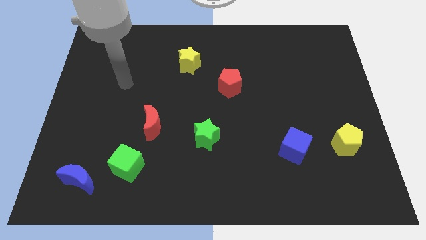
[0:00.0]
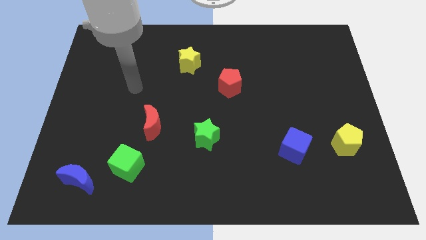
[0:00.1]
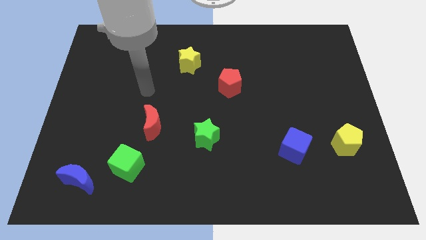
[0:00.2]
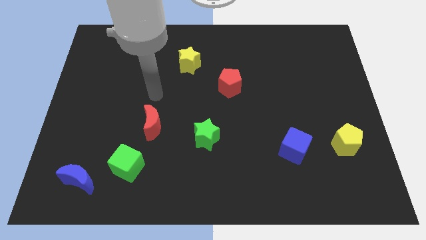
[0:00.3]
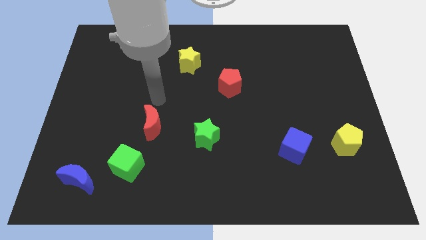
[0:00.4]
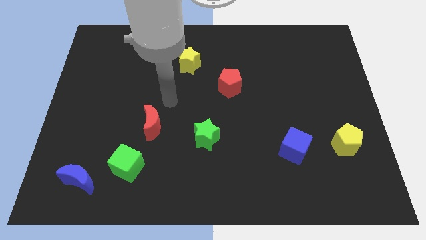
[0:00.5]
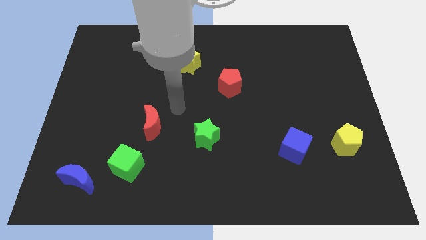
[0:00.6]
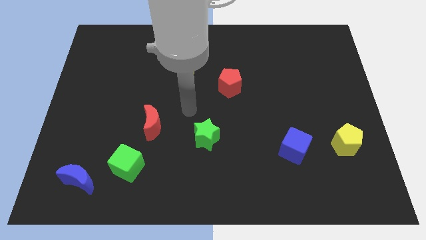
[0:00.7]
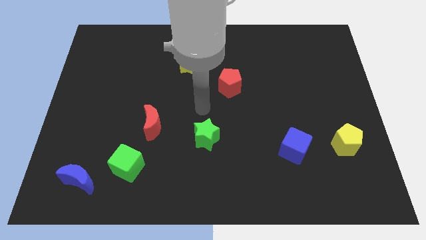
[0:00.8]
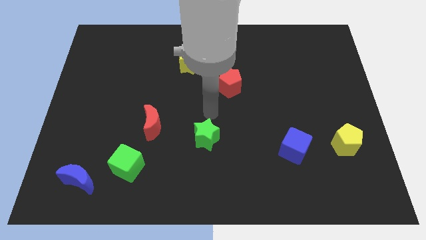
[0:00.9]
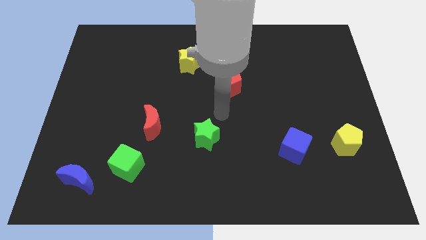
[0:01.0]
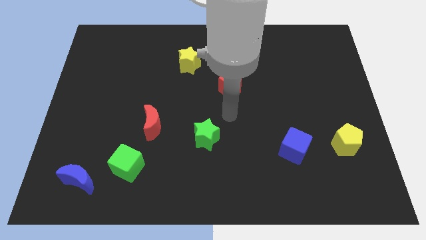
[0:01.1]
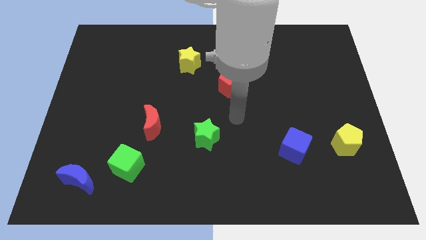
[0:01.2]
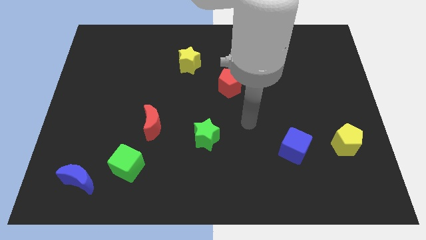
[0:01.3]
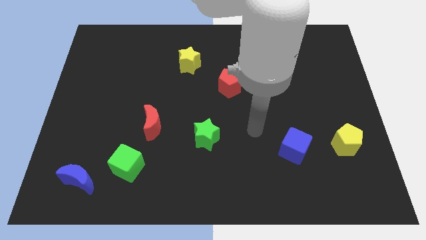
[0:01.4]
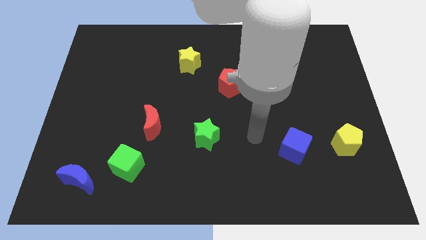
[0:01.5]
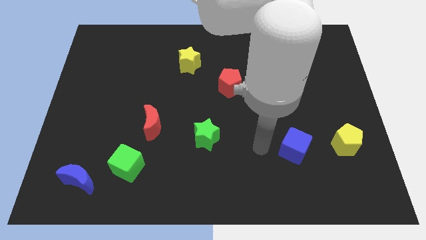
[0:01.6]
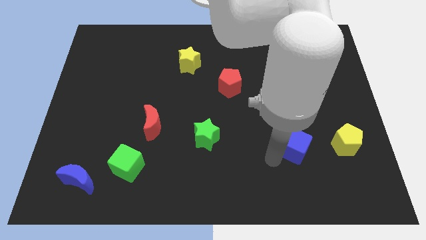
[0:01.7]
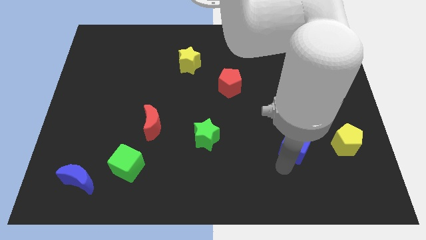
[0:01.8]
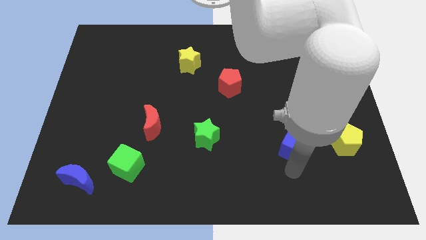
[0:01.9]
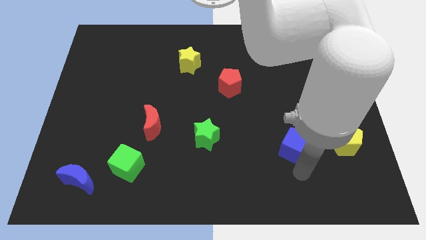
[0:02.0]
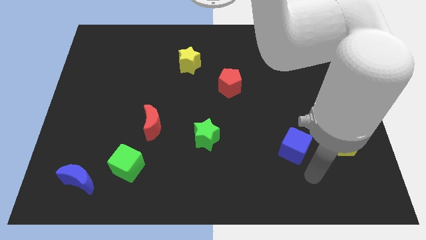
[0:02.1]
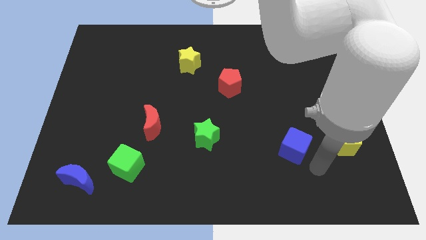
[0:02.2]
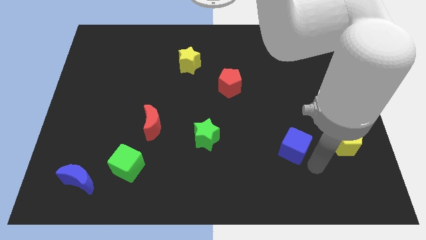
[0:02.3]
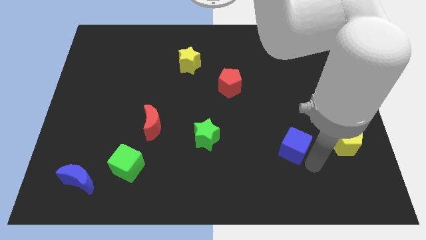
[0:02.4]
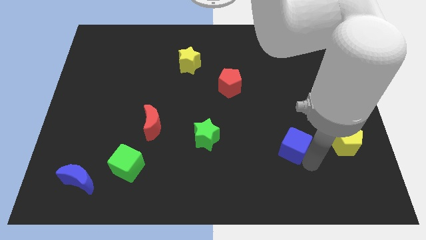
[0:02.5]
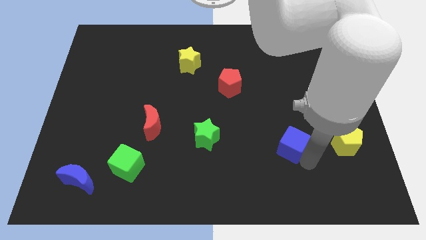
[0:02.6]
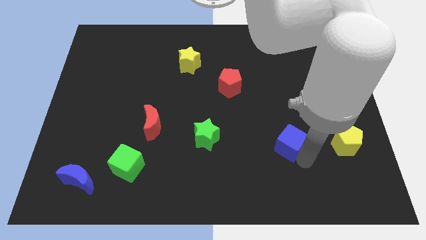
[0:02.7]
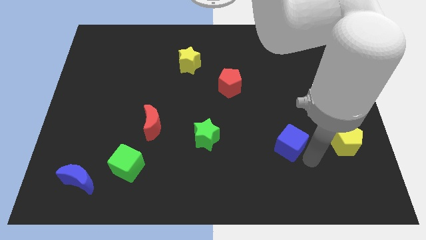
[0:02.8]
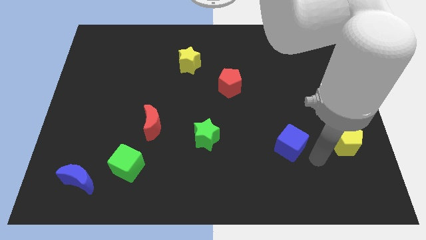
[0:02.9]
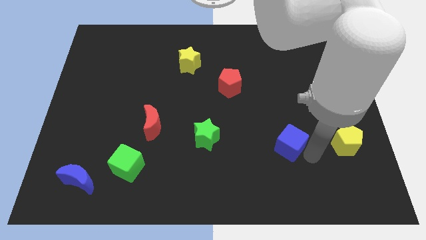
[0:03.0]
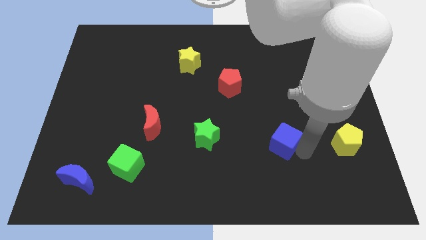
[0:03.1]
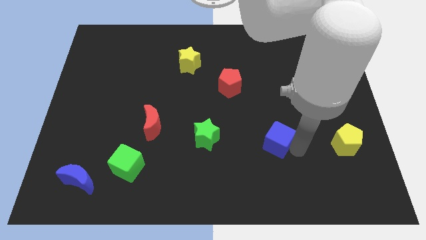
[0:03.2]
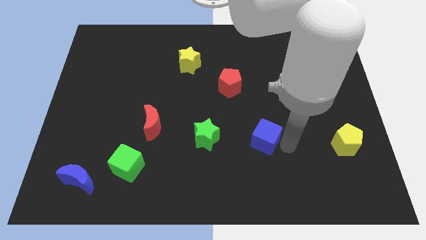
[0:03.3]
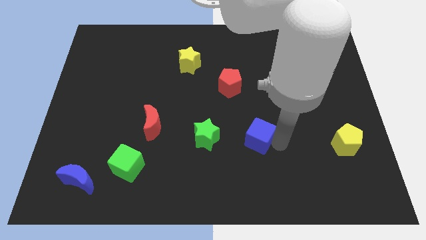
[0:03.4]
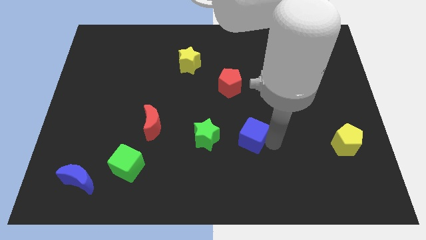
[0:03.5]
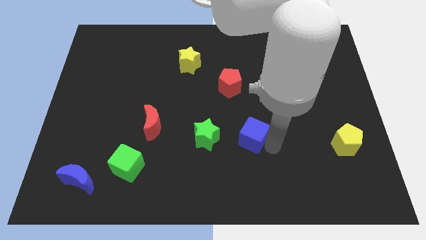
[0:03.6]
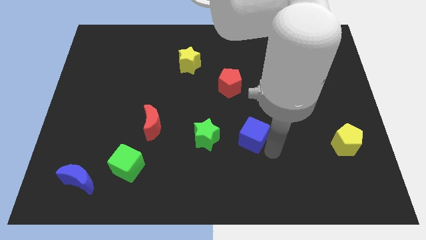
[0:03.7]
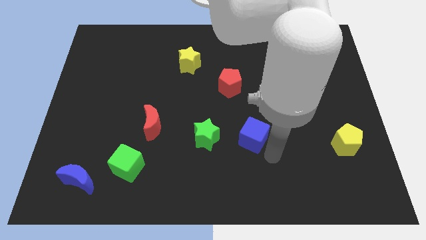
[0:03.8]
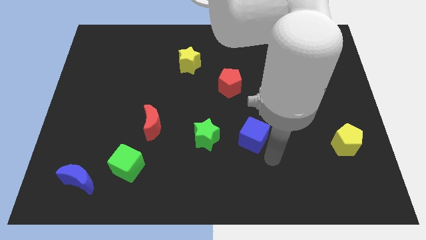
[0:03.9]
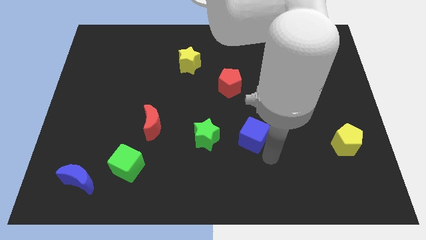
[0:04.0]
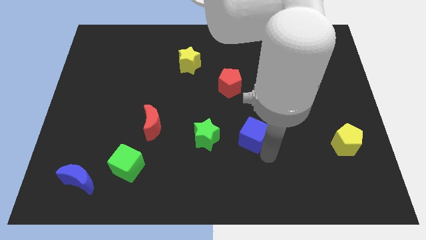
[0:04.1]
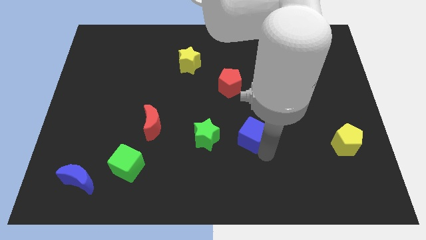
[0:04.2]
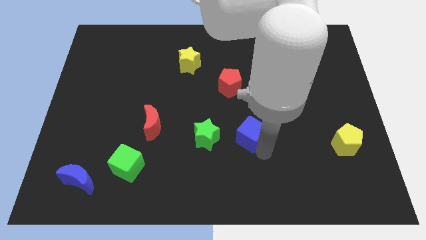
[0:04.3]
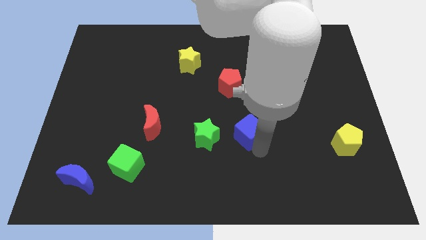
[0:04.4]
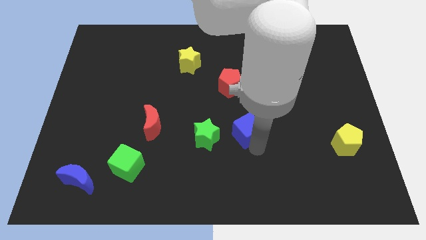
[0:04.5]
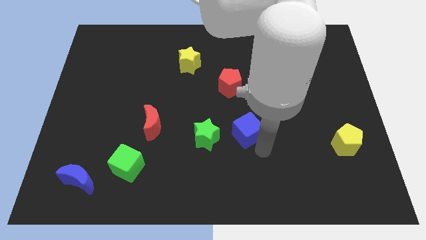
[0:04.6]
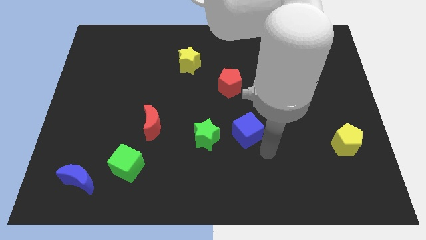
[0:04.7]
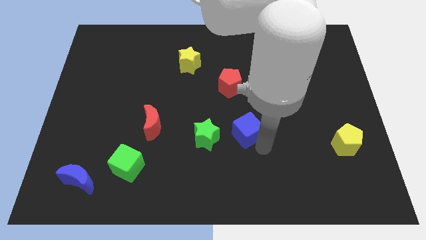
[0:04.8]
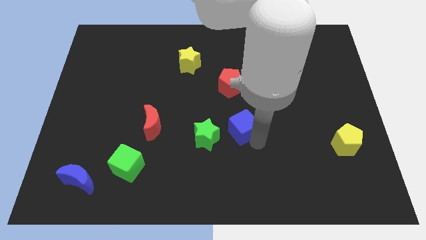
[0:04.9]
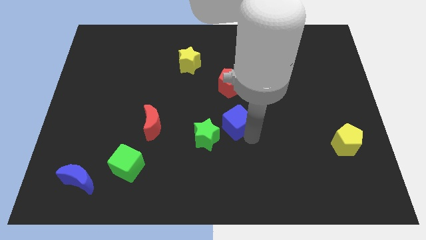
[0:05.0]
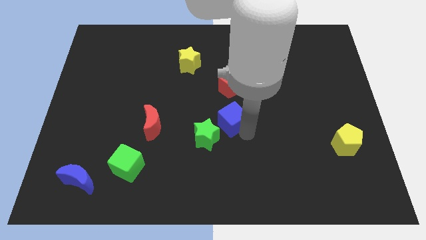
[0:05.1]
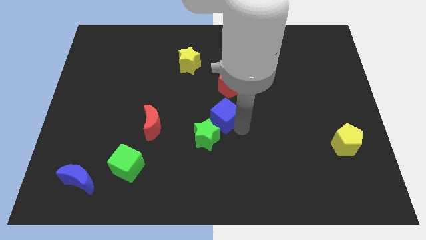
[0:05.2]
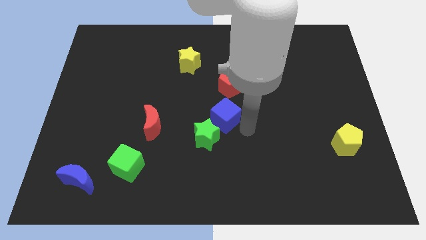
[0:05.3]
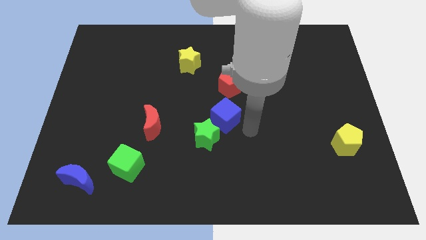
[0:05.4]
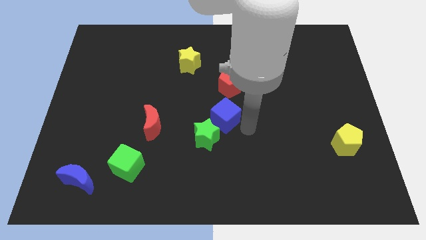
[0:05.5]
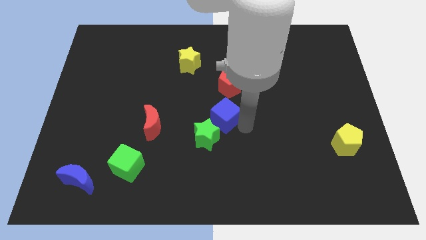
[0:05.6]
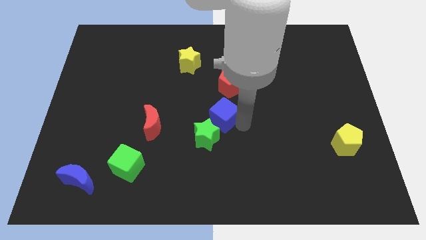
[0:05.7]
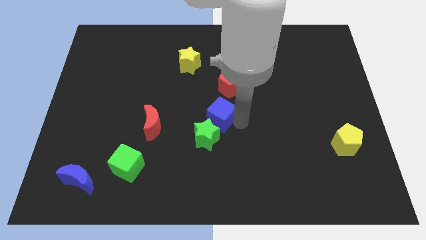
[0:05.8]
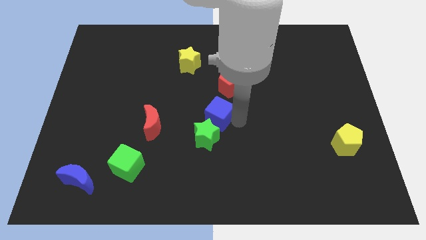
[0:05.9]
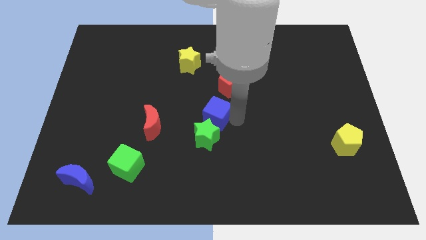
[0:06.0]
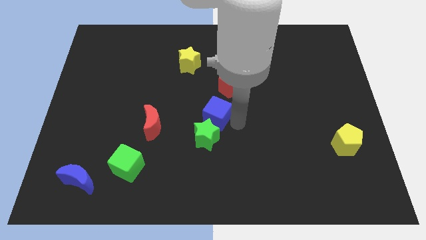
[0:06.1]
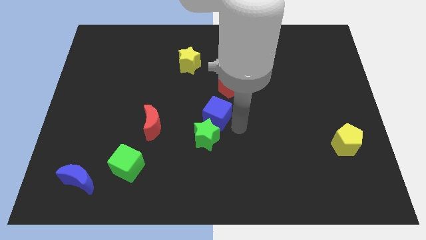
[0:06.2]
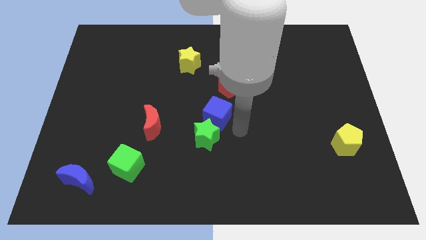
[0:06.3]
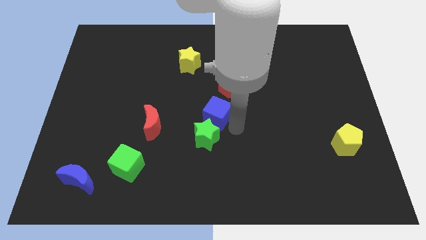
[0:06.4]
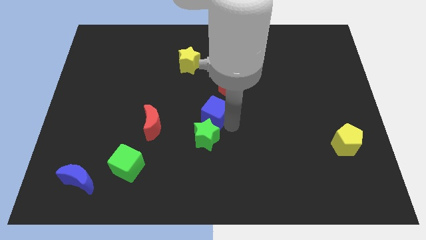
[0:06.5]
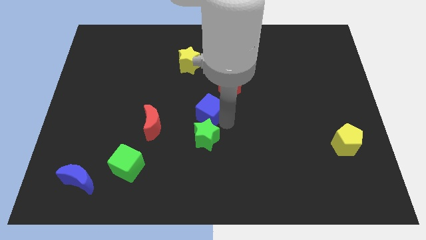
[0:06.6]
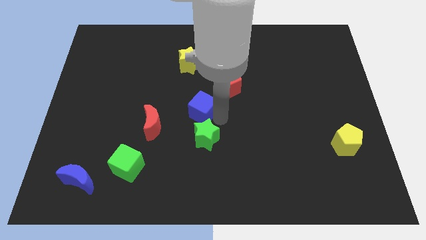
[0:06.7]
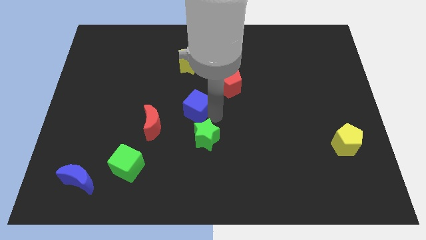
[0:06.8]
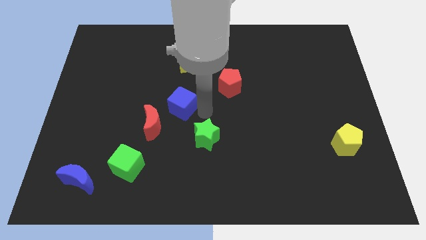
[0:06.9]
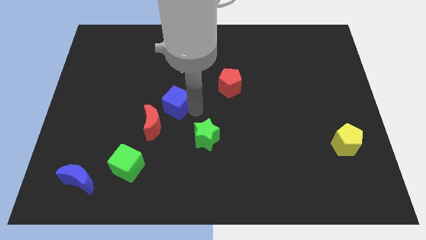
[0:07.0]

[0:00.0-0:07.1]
slide the blue cube to the top of the red moon

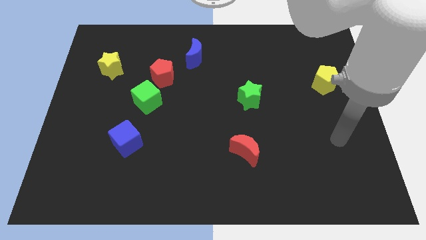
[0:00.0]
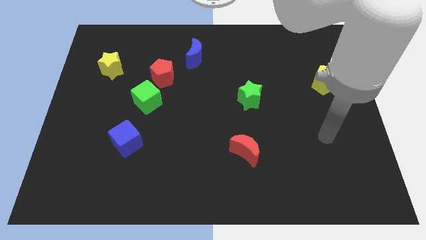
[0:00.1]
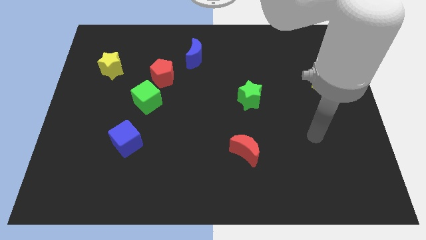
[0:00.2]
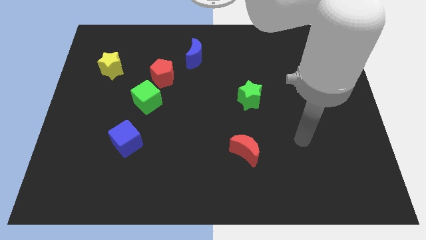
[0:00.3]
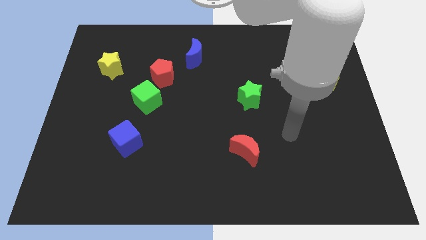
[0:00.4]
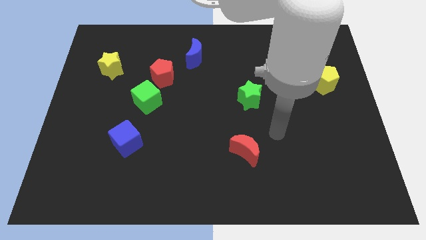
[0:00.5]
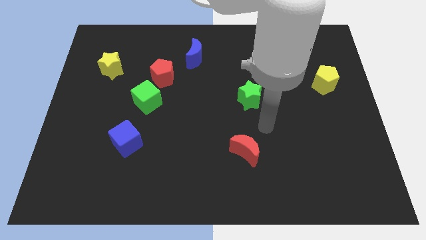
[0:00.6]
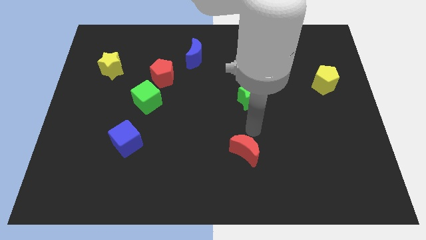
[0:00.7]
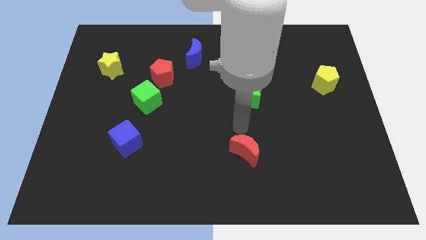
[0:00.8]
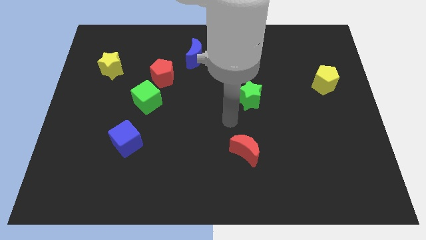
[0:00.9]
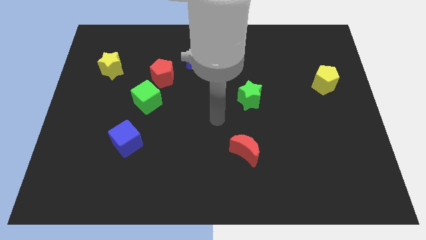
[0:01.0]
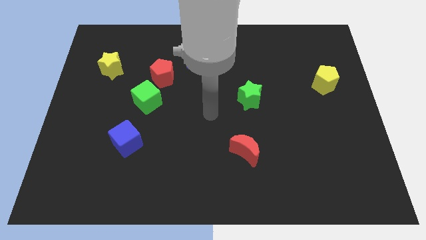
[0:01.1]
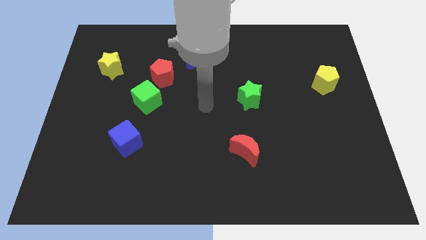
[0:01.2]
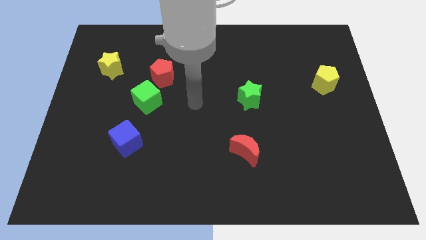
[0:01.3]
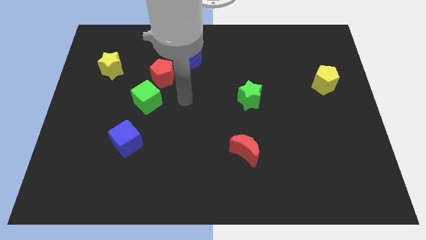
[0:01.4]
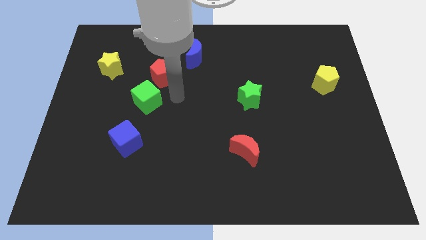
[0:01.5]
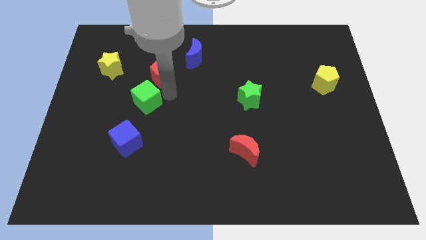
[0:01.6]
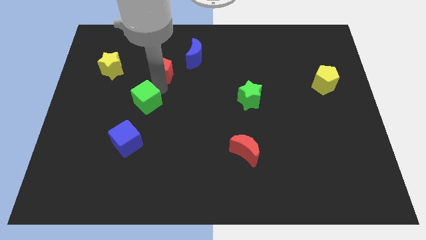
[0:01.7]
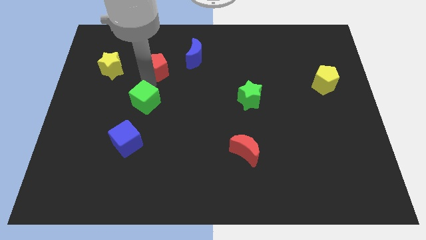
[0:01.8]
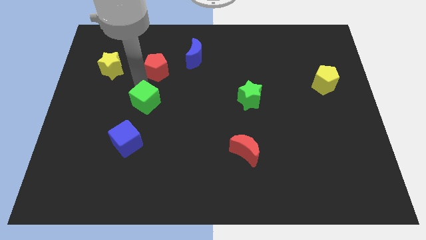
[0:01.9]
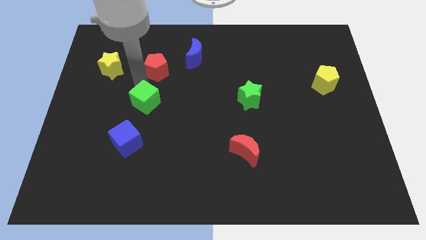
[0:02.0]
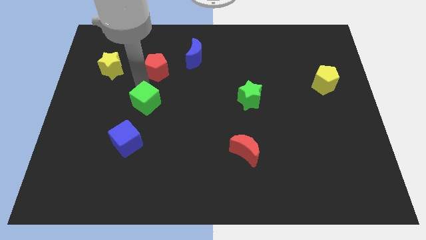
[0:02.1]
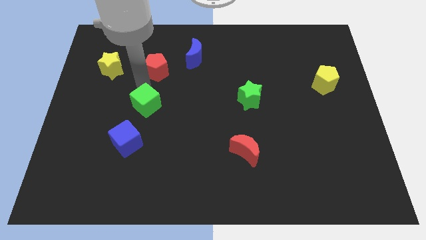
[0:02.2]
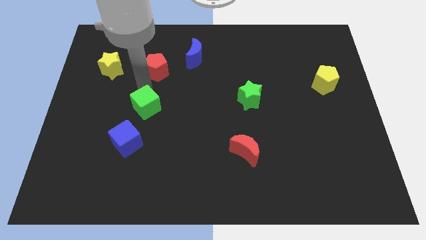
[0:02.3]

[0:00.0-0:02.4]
put the green cube to the top right side of the blue cube
